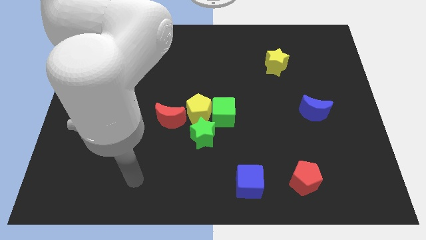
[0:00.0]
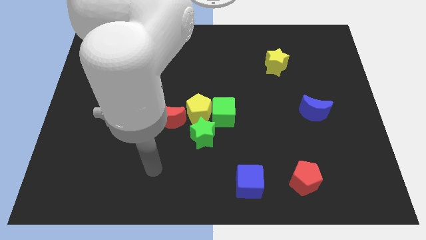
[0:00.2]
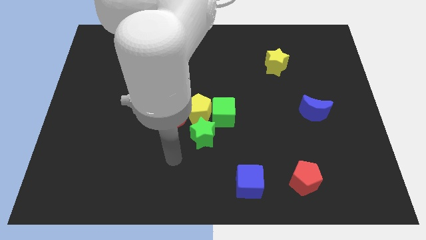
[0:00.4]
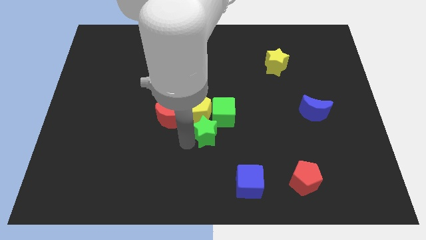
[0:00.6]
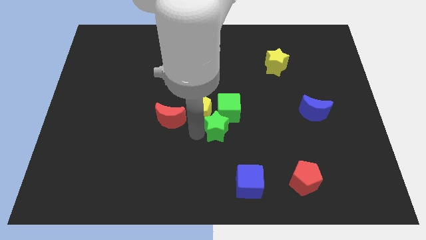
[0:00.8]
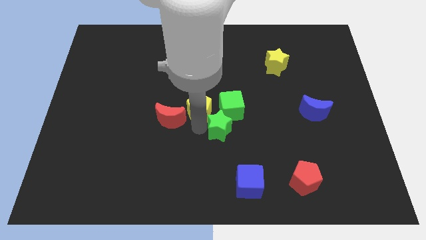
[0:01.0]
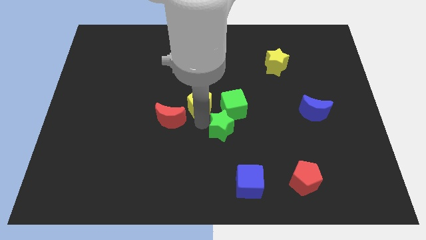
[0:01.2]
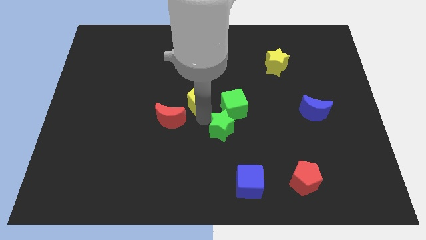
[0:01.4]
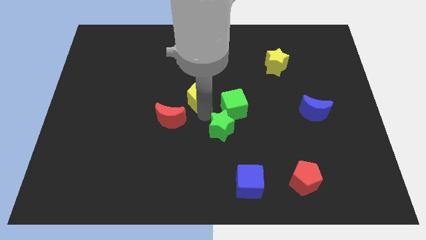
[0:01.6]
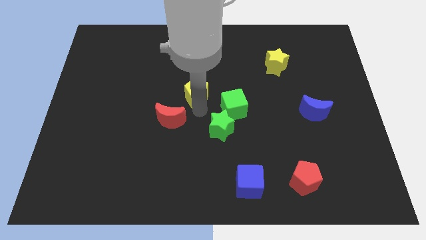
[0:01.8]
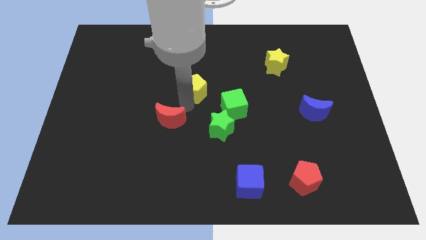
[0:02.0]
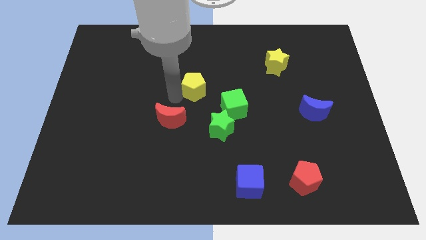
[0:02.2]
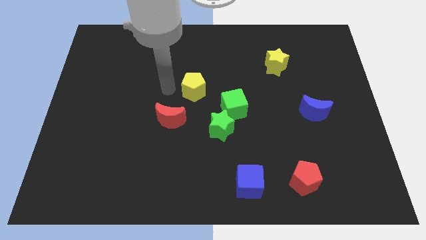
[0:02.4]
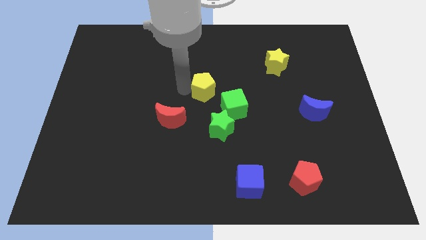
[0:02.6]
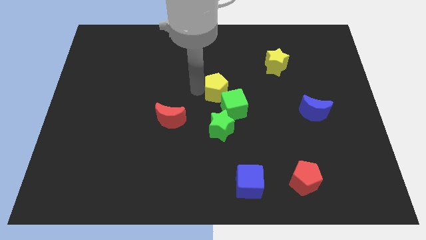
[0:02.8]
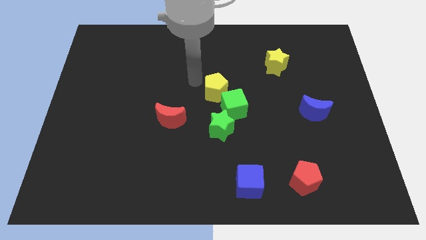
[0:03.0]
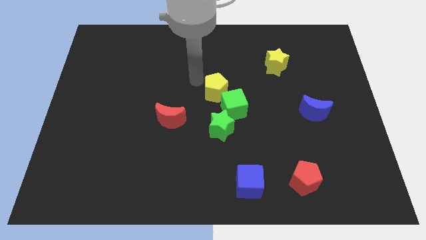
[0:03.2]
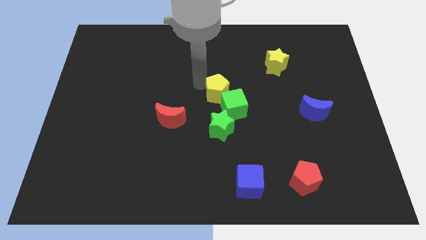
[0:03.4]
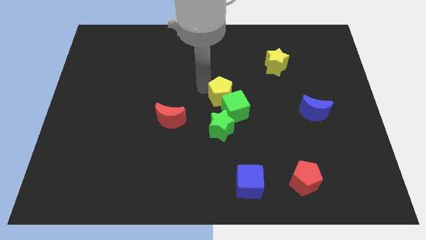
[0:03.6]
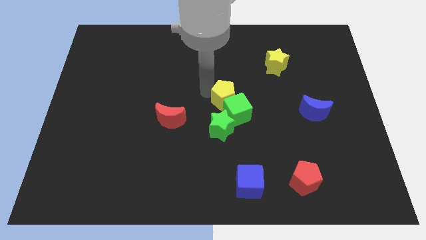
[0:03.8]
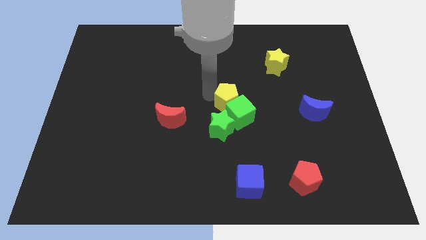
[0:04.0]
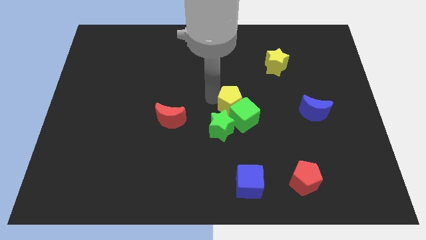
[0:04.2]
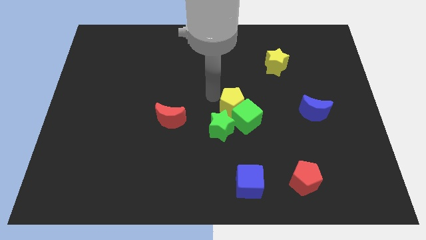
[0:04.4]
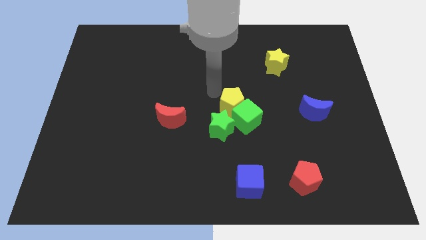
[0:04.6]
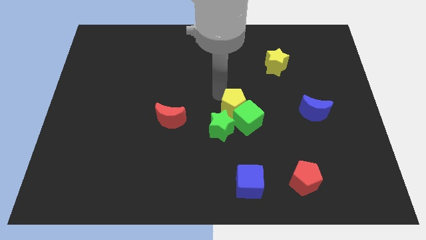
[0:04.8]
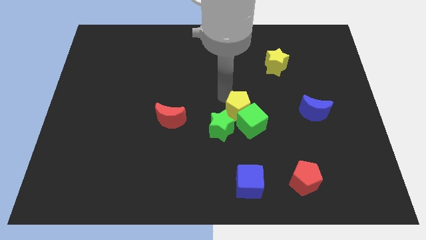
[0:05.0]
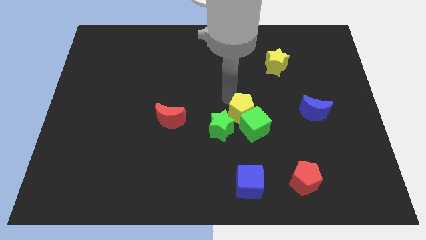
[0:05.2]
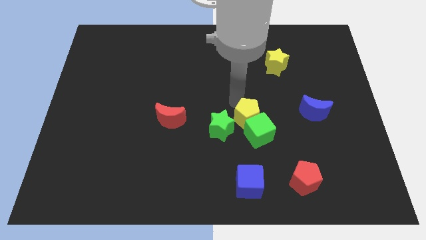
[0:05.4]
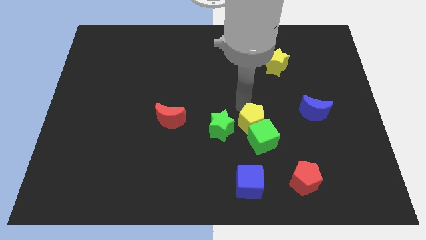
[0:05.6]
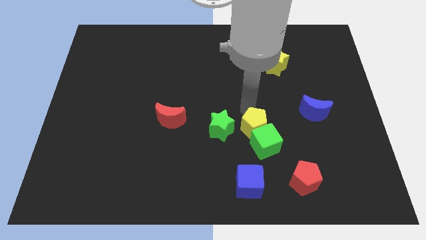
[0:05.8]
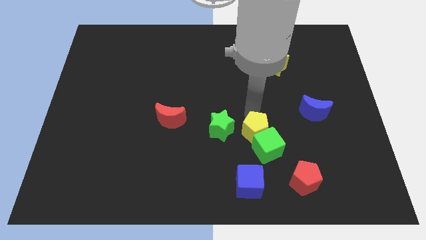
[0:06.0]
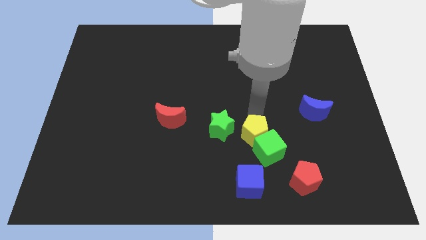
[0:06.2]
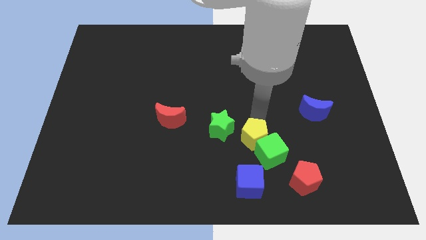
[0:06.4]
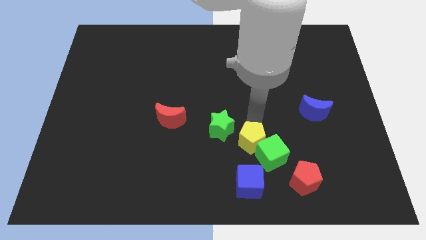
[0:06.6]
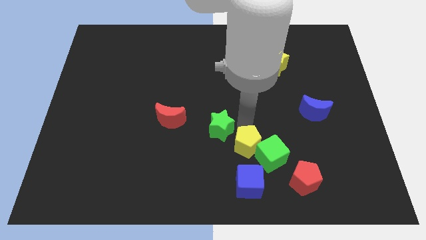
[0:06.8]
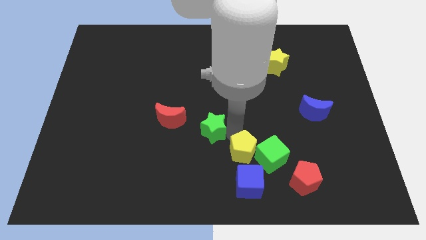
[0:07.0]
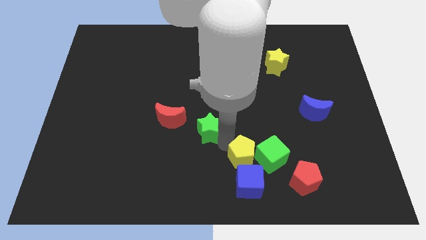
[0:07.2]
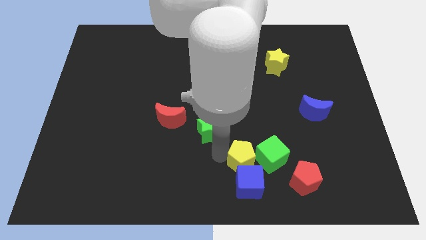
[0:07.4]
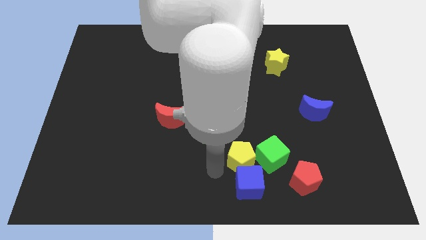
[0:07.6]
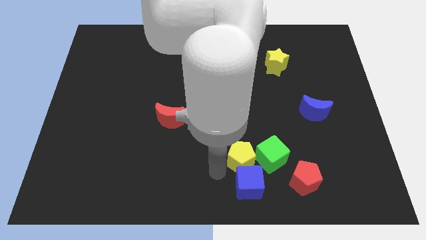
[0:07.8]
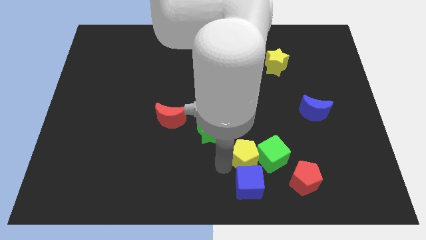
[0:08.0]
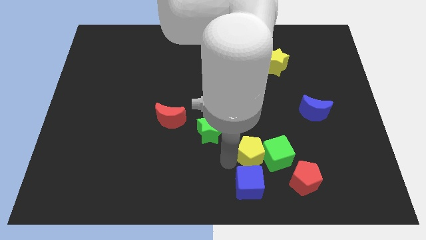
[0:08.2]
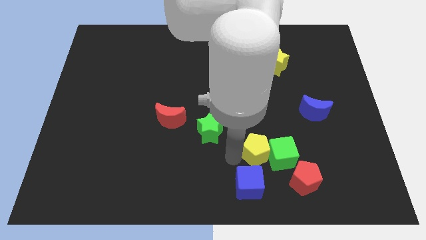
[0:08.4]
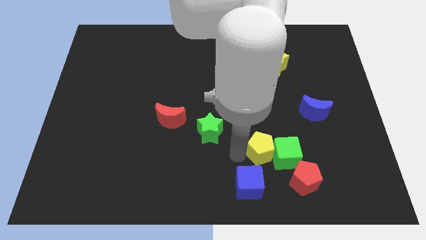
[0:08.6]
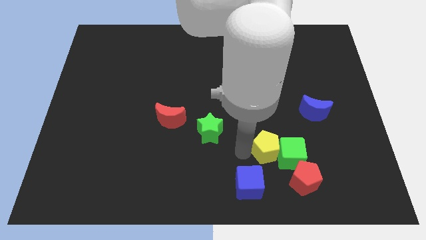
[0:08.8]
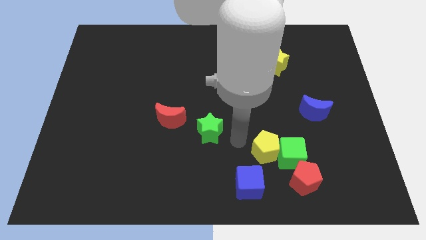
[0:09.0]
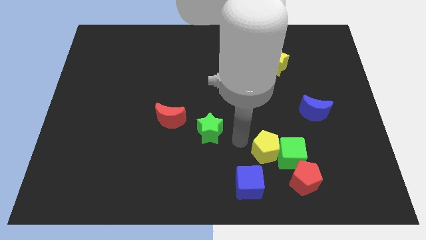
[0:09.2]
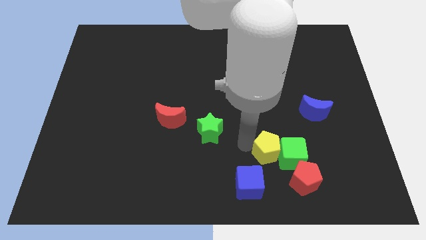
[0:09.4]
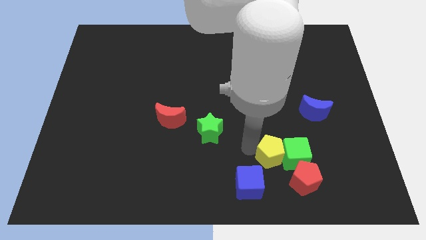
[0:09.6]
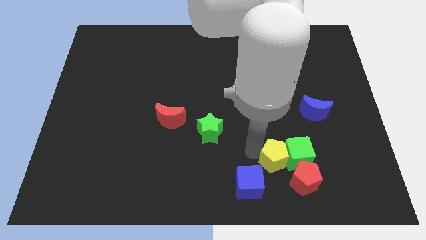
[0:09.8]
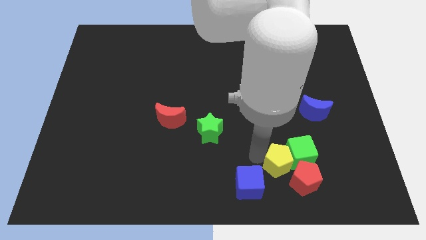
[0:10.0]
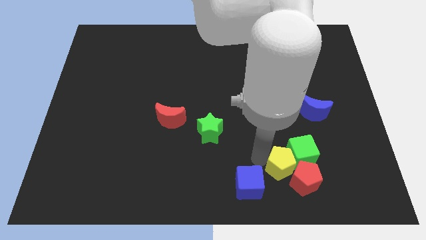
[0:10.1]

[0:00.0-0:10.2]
move the yellow pentagon to the red pentagon

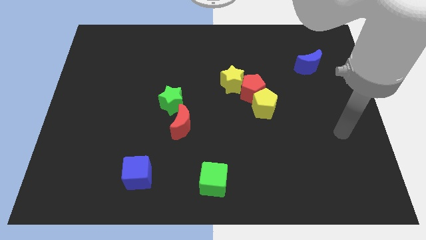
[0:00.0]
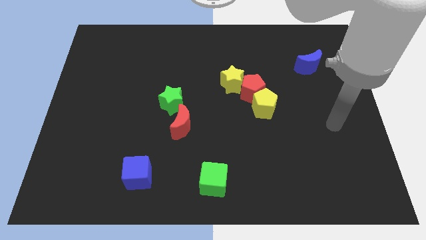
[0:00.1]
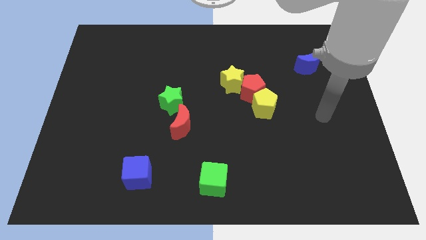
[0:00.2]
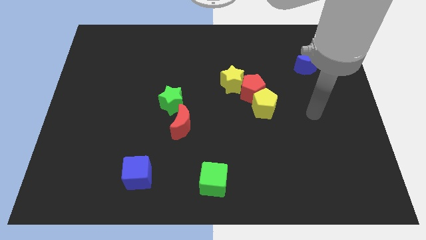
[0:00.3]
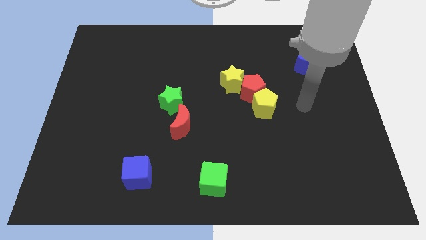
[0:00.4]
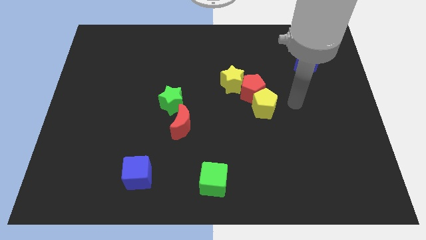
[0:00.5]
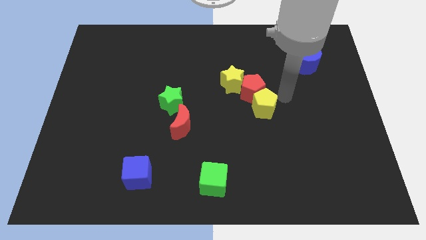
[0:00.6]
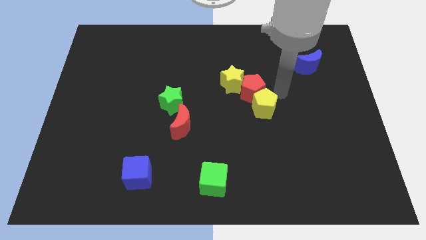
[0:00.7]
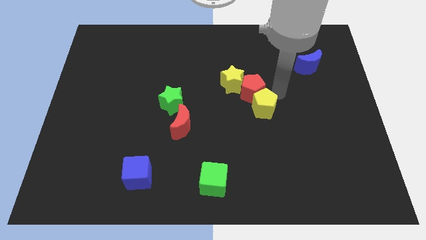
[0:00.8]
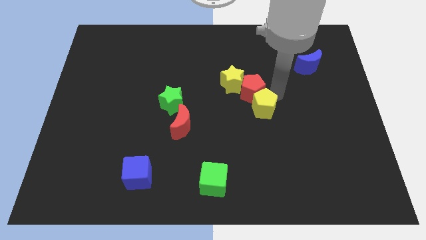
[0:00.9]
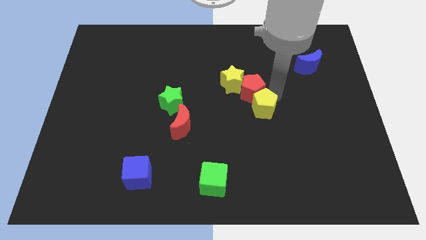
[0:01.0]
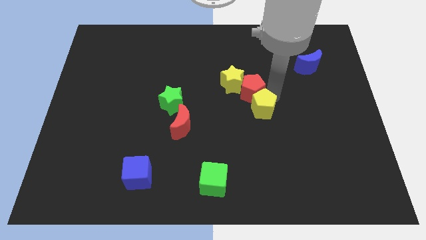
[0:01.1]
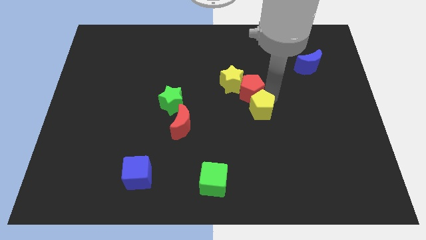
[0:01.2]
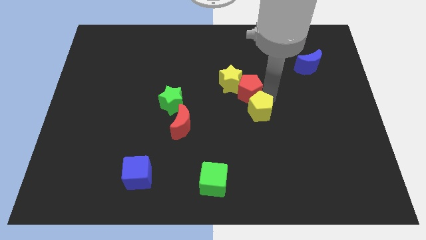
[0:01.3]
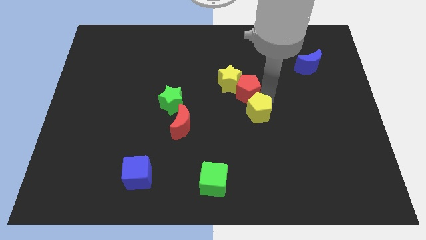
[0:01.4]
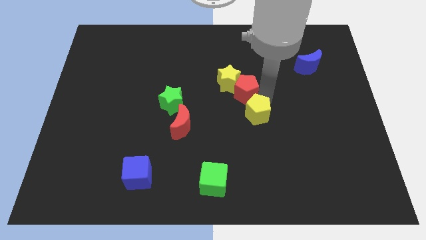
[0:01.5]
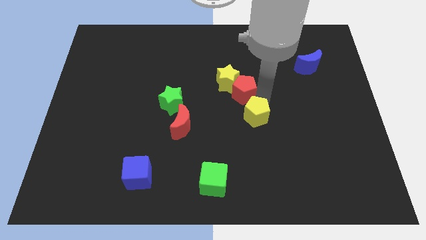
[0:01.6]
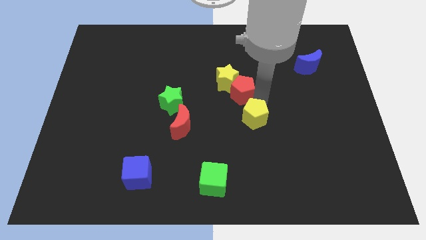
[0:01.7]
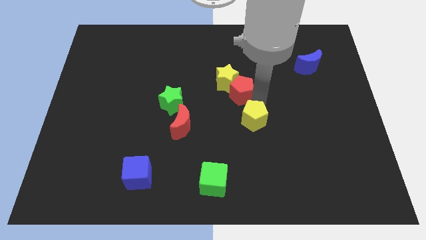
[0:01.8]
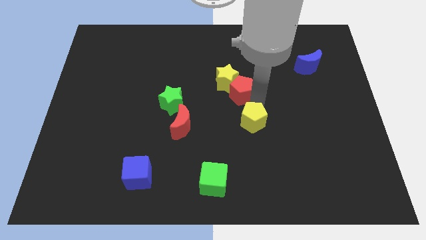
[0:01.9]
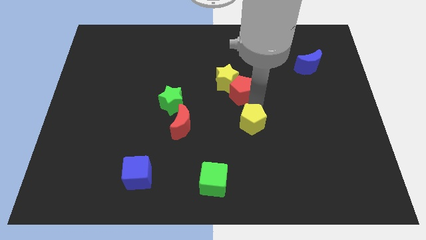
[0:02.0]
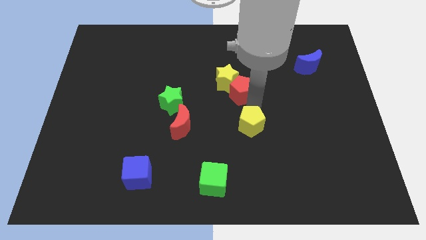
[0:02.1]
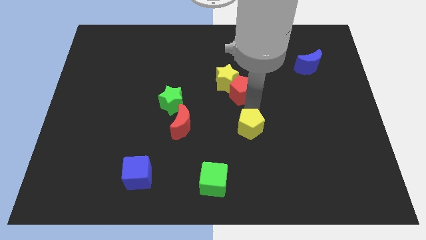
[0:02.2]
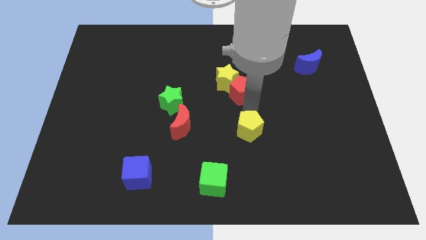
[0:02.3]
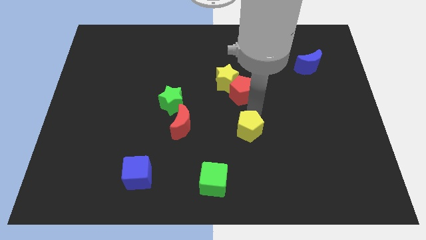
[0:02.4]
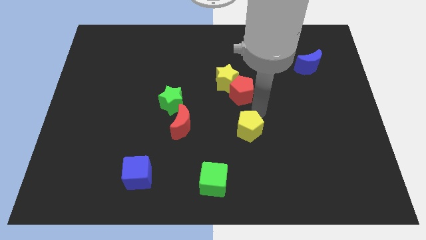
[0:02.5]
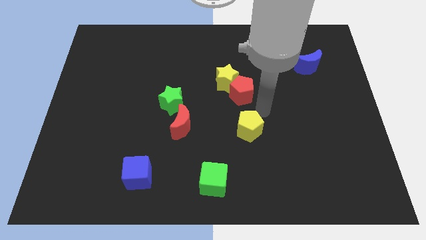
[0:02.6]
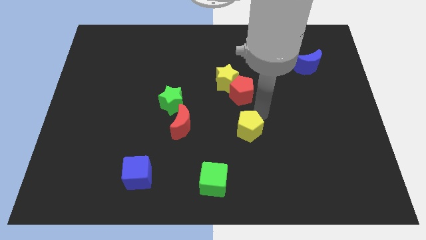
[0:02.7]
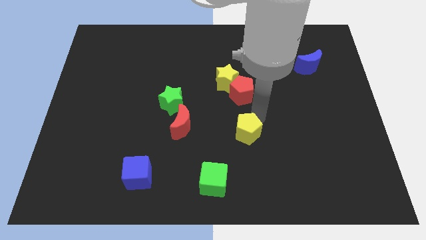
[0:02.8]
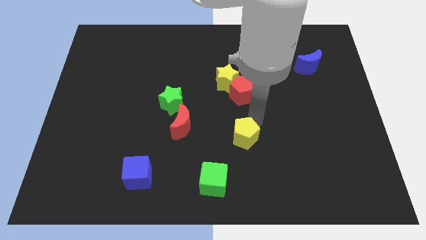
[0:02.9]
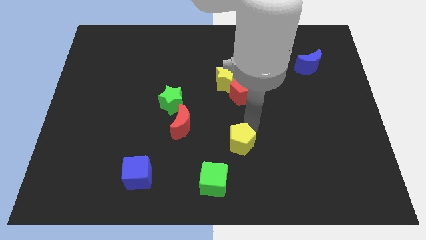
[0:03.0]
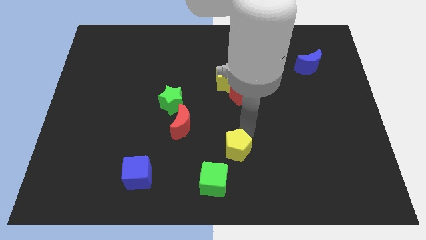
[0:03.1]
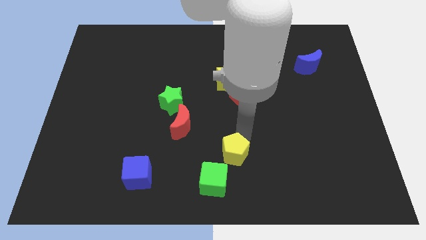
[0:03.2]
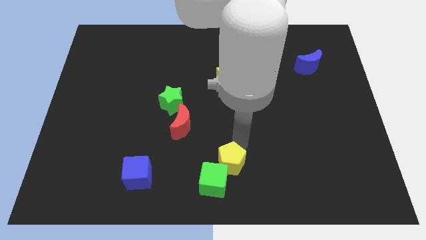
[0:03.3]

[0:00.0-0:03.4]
push the yellow pentagon to the green cube
